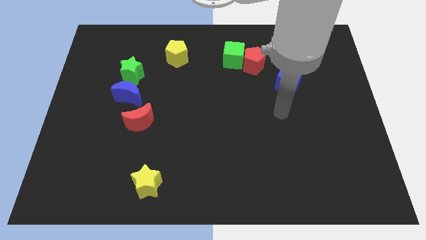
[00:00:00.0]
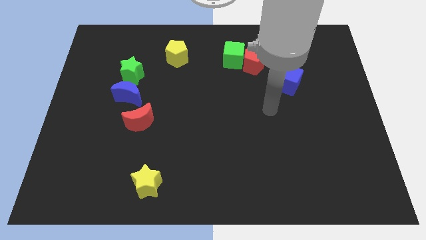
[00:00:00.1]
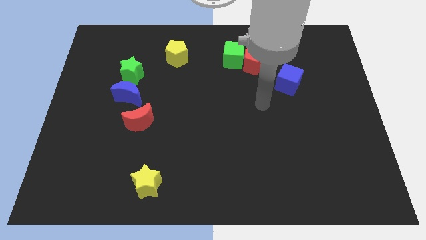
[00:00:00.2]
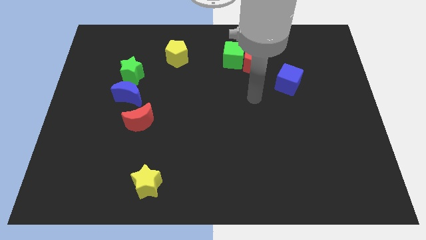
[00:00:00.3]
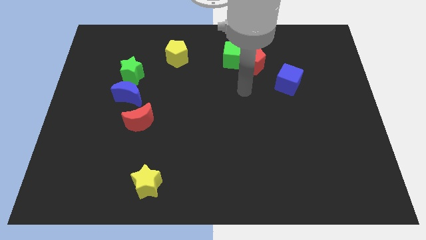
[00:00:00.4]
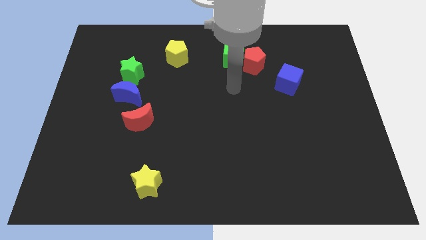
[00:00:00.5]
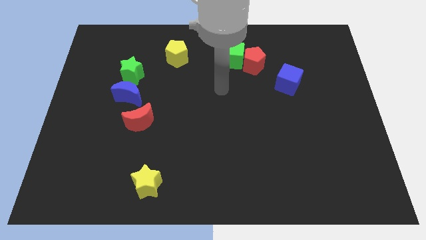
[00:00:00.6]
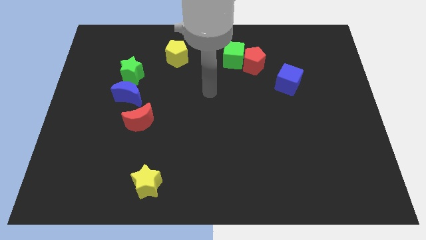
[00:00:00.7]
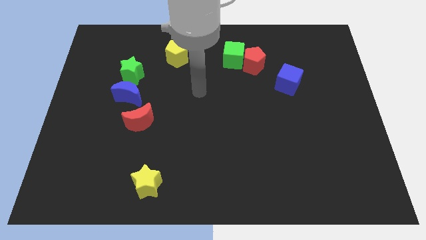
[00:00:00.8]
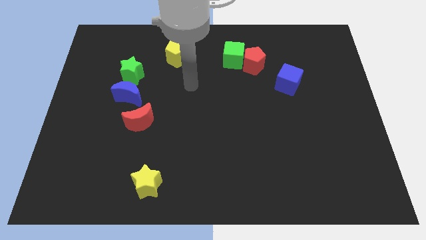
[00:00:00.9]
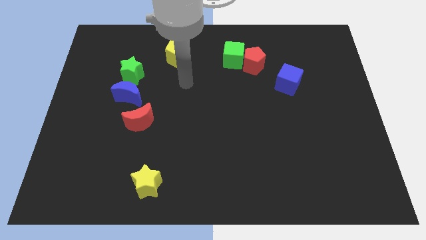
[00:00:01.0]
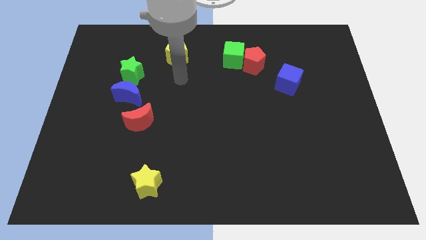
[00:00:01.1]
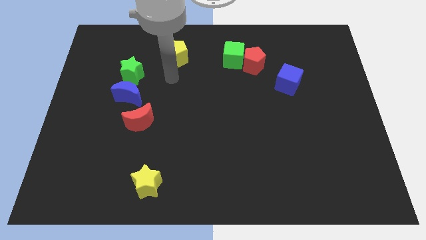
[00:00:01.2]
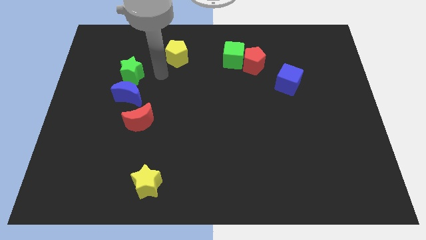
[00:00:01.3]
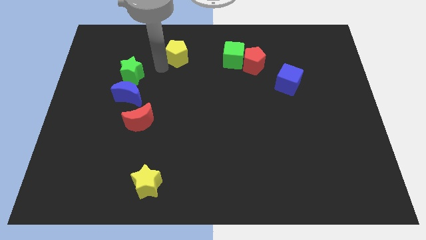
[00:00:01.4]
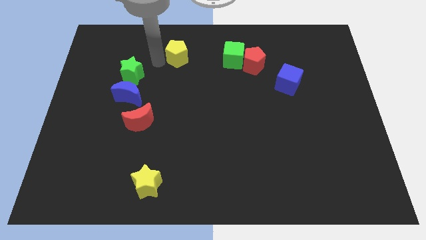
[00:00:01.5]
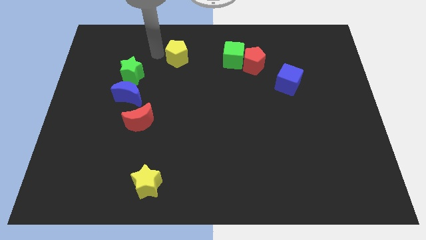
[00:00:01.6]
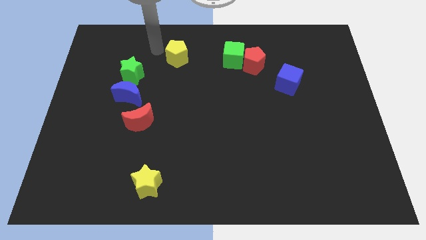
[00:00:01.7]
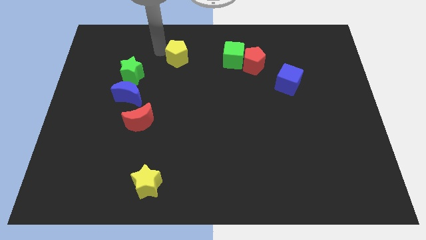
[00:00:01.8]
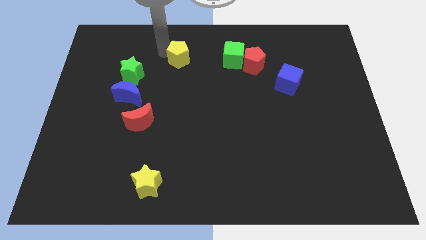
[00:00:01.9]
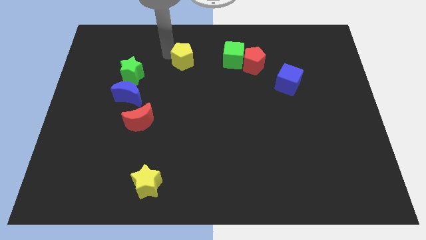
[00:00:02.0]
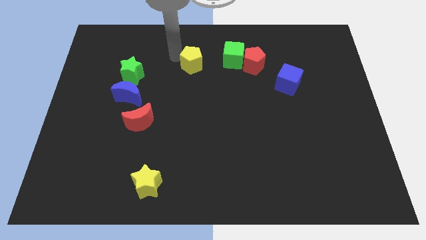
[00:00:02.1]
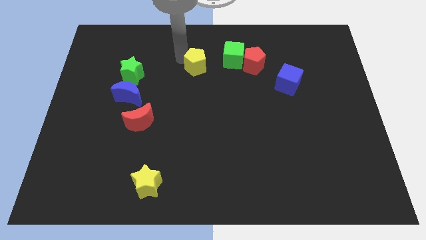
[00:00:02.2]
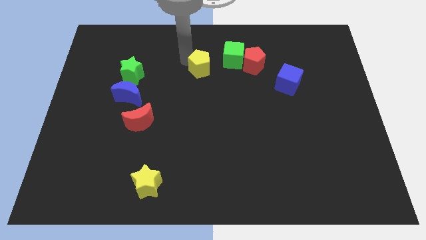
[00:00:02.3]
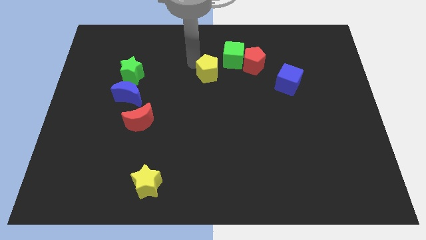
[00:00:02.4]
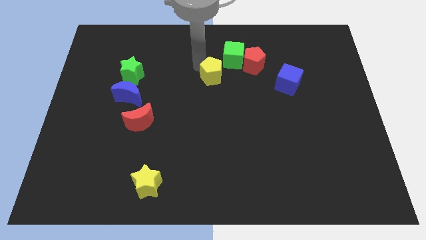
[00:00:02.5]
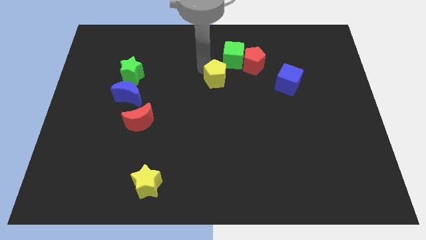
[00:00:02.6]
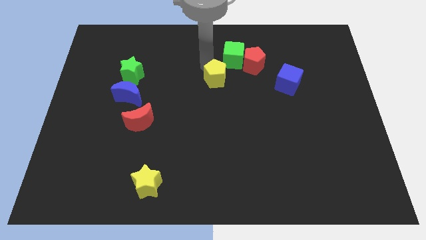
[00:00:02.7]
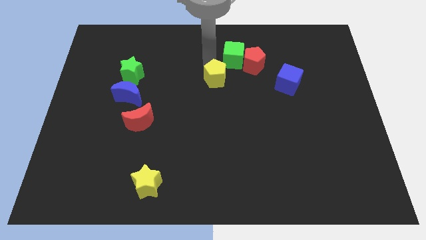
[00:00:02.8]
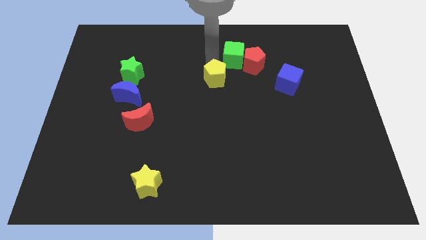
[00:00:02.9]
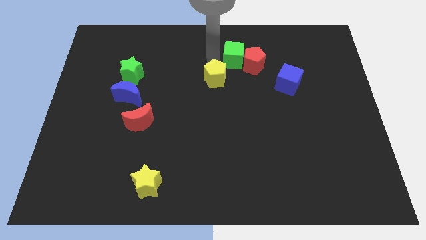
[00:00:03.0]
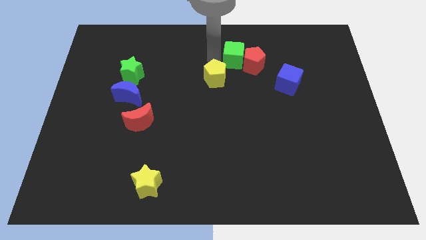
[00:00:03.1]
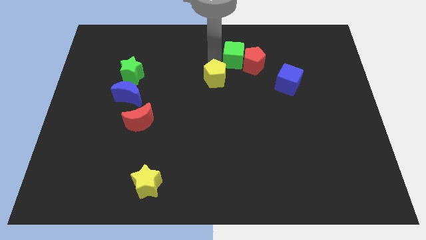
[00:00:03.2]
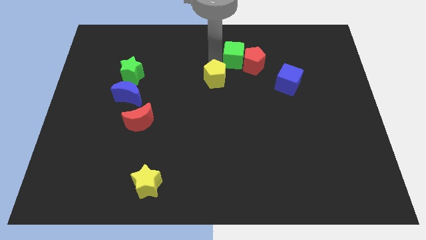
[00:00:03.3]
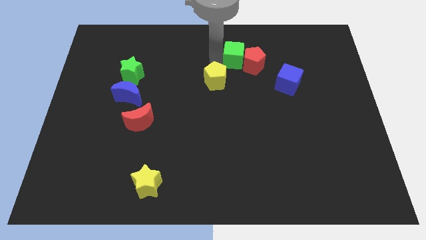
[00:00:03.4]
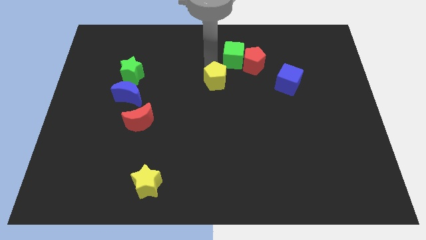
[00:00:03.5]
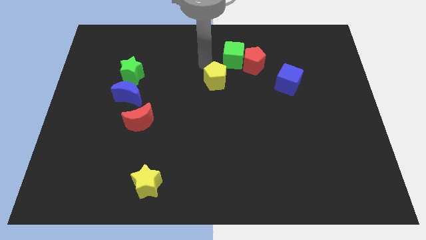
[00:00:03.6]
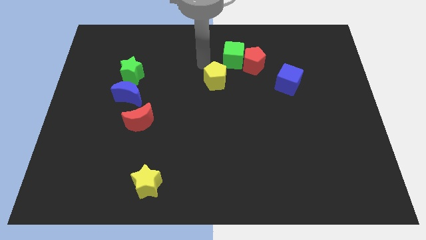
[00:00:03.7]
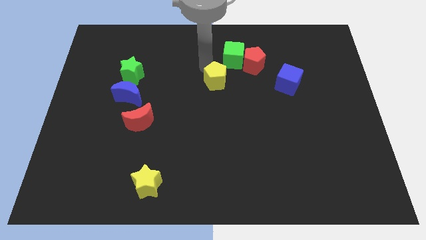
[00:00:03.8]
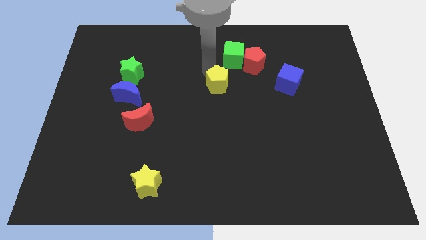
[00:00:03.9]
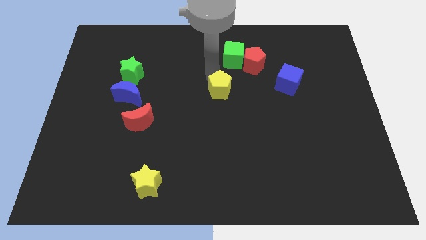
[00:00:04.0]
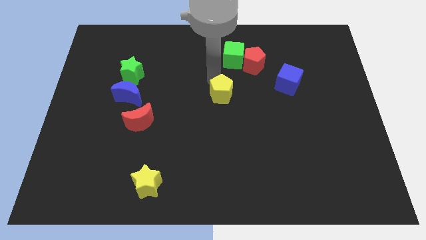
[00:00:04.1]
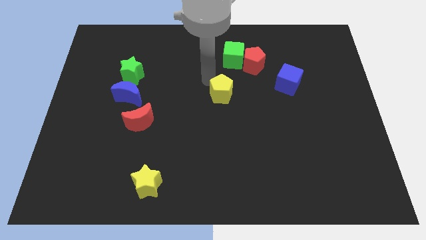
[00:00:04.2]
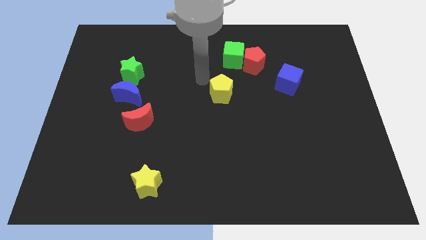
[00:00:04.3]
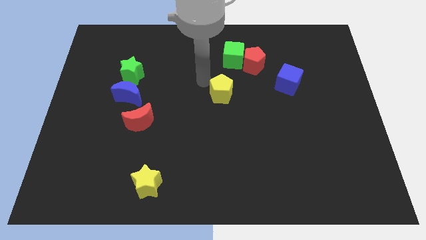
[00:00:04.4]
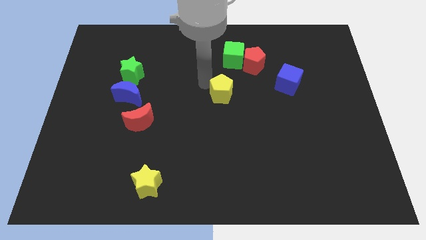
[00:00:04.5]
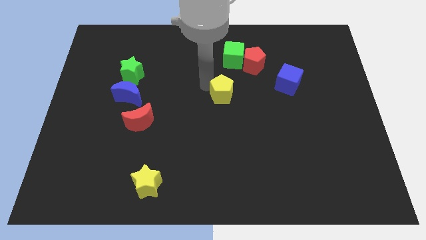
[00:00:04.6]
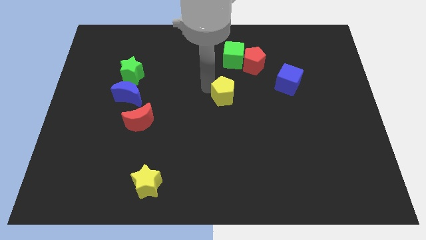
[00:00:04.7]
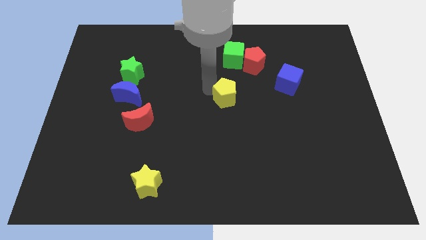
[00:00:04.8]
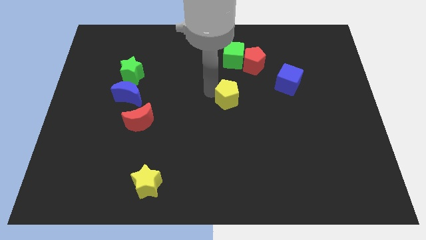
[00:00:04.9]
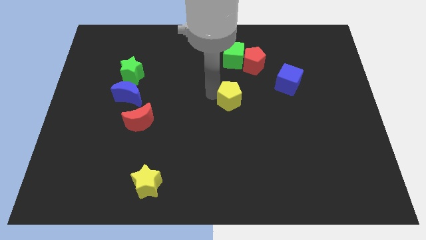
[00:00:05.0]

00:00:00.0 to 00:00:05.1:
move the yellow pentagon down and to the right

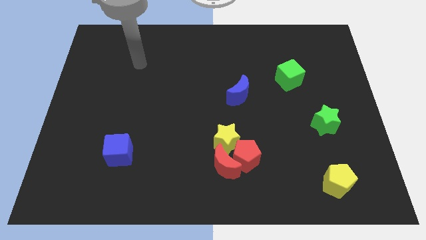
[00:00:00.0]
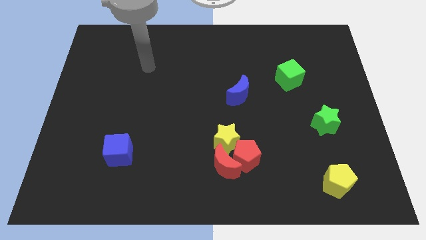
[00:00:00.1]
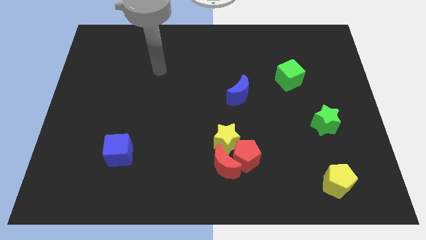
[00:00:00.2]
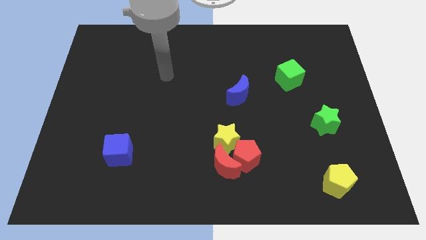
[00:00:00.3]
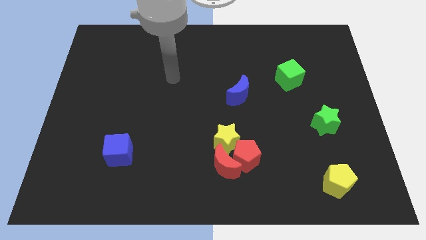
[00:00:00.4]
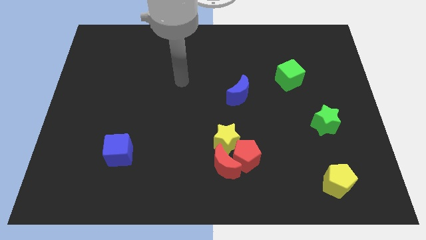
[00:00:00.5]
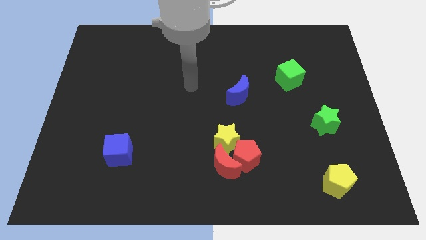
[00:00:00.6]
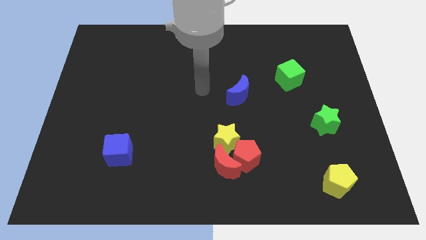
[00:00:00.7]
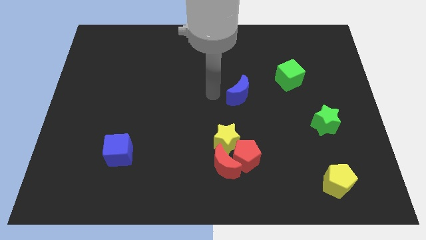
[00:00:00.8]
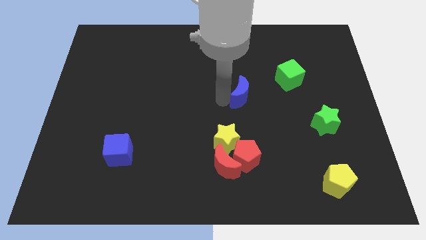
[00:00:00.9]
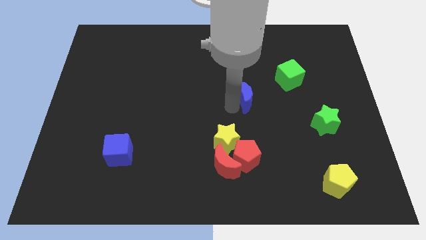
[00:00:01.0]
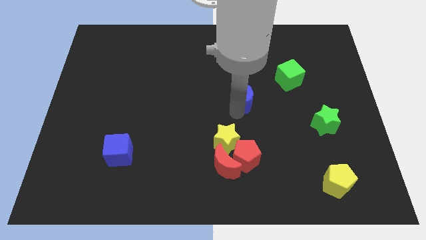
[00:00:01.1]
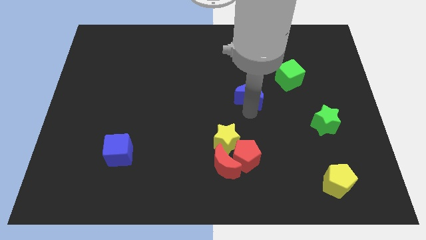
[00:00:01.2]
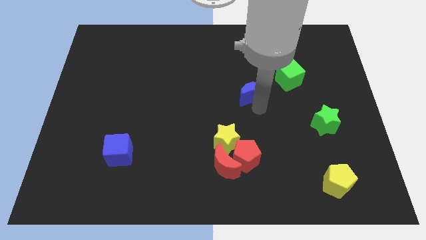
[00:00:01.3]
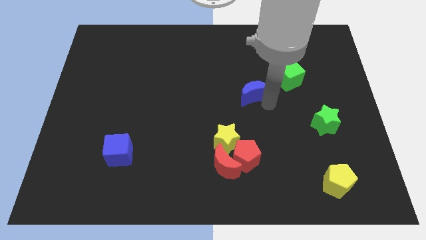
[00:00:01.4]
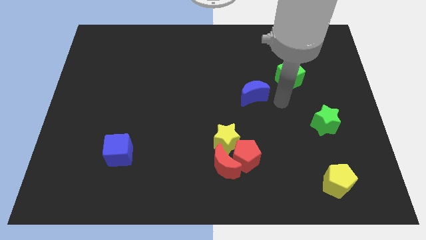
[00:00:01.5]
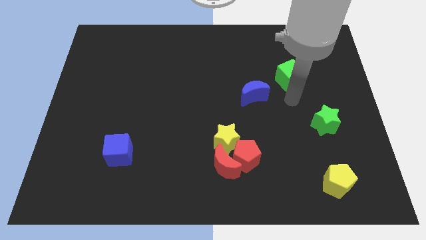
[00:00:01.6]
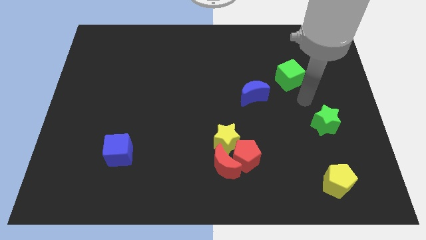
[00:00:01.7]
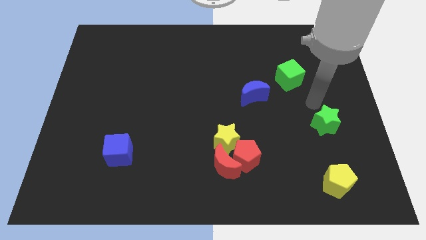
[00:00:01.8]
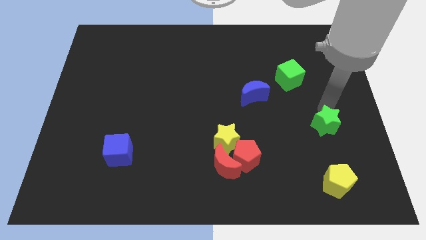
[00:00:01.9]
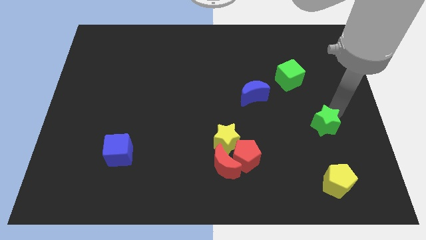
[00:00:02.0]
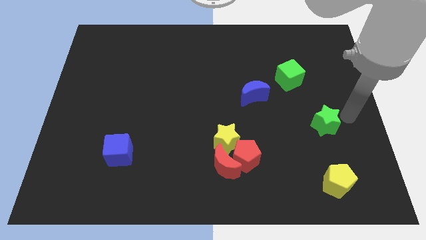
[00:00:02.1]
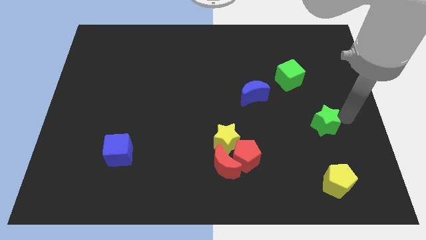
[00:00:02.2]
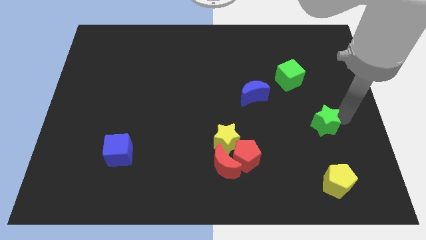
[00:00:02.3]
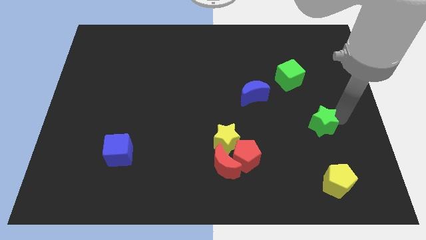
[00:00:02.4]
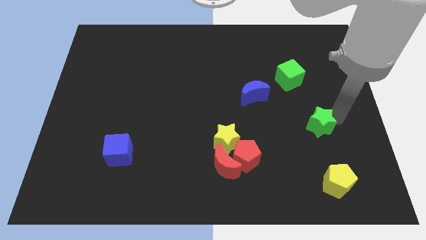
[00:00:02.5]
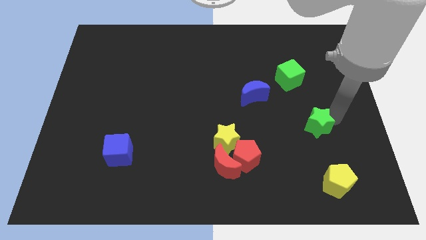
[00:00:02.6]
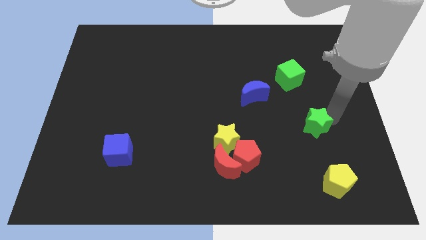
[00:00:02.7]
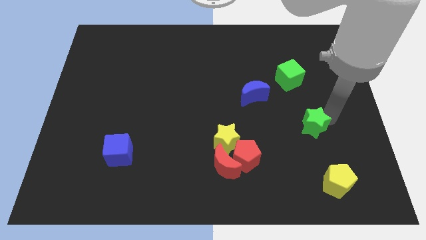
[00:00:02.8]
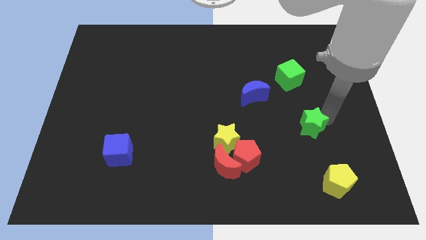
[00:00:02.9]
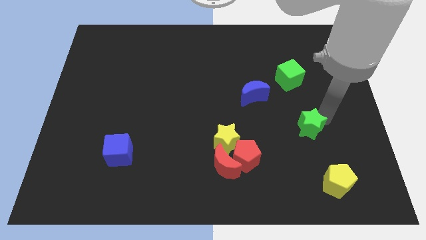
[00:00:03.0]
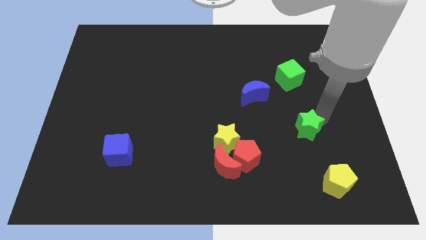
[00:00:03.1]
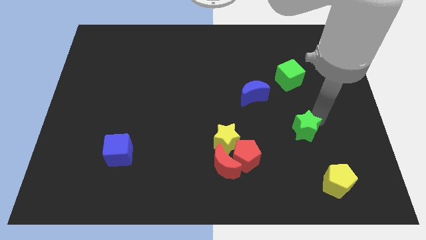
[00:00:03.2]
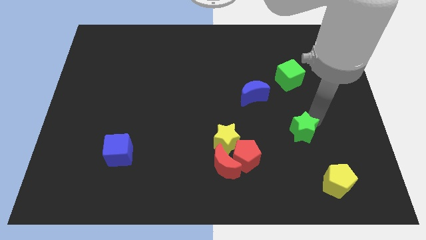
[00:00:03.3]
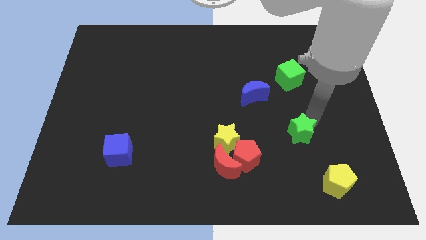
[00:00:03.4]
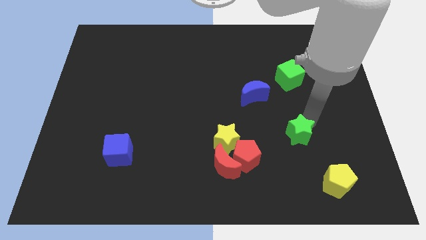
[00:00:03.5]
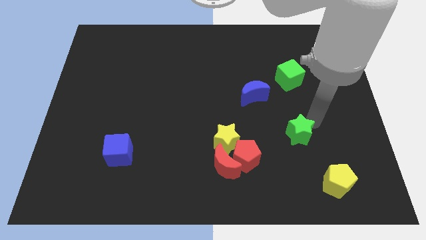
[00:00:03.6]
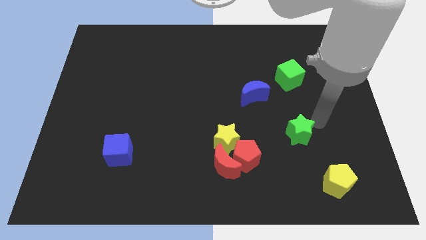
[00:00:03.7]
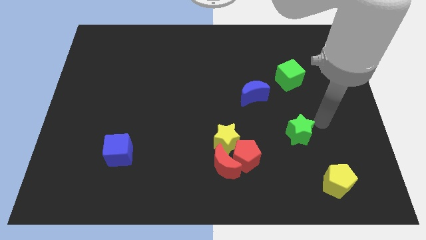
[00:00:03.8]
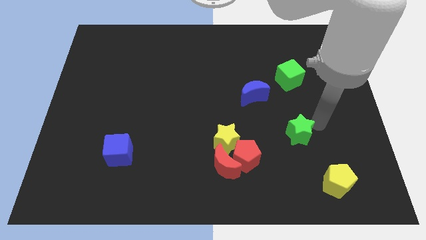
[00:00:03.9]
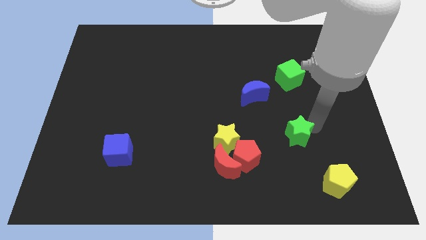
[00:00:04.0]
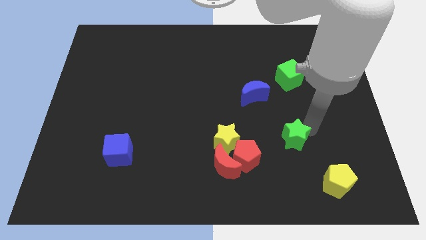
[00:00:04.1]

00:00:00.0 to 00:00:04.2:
push the green star down and then left a little
